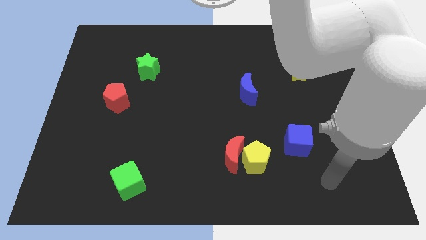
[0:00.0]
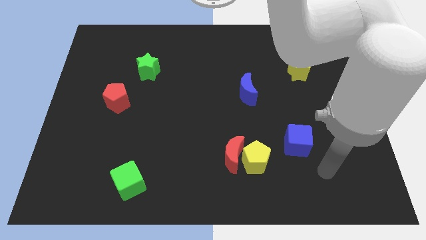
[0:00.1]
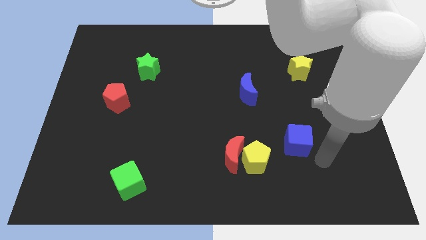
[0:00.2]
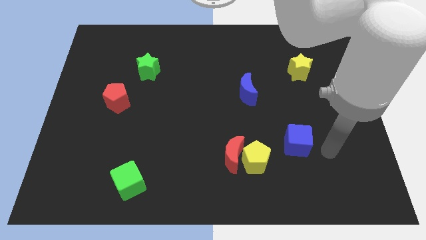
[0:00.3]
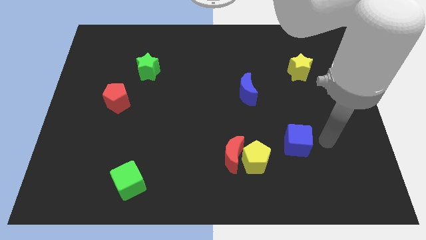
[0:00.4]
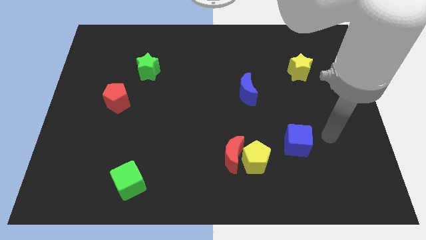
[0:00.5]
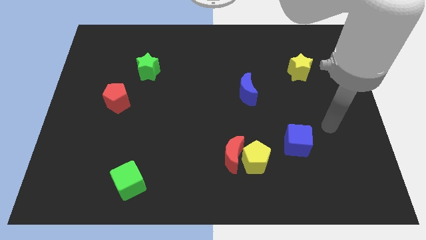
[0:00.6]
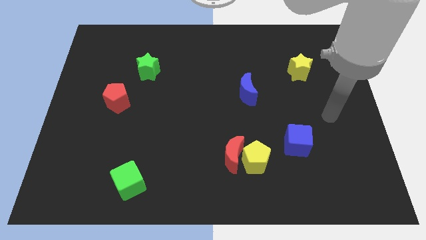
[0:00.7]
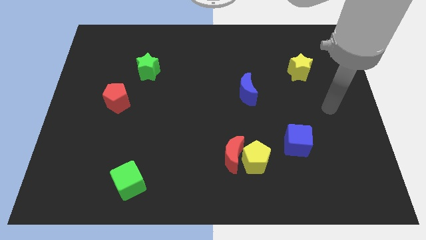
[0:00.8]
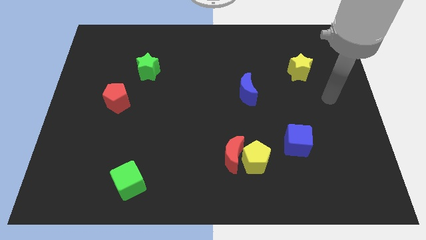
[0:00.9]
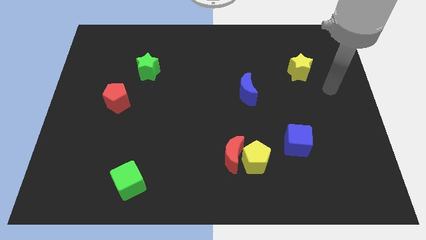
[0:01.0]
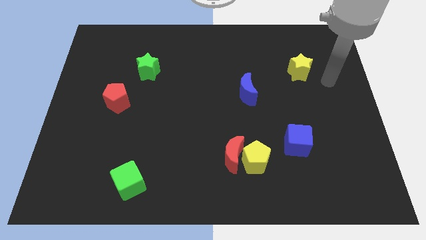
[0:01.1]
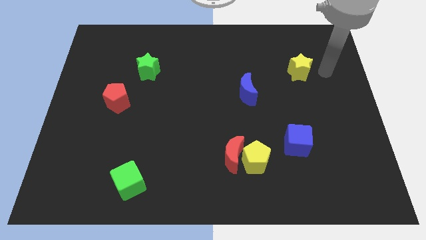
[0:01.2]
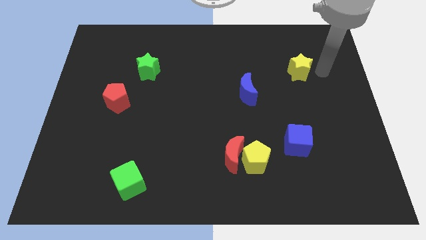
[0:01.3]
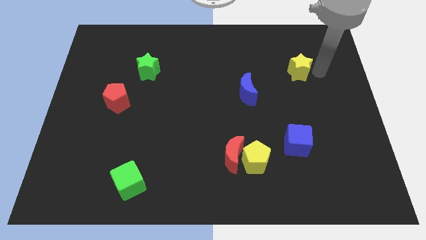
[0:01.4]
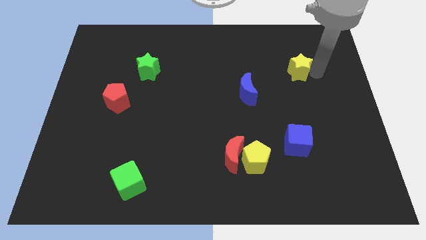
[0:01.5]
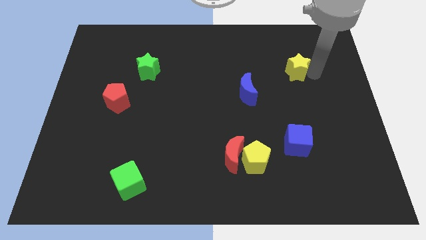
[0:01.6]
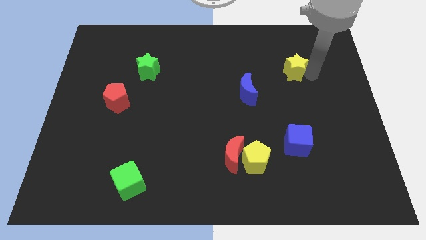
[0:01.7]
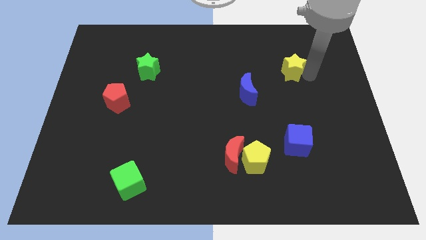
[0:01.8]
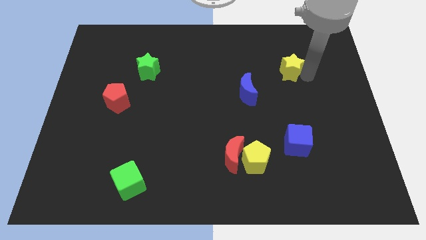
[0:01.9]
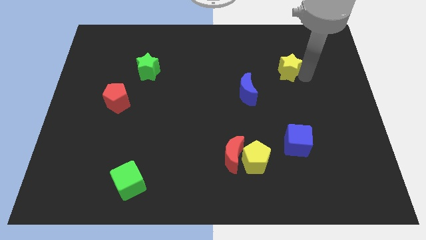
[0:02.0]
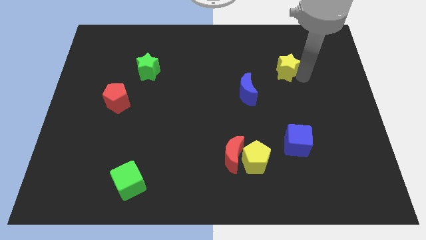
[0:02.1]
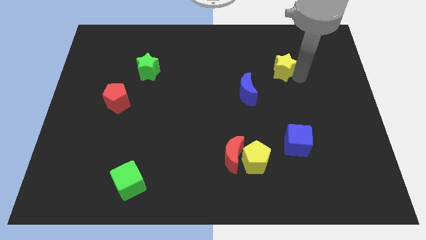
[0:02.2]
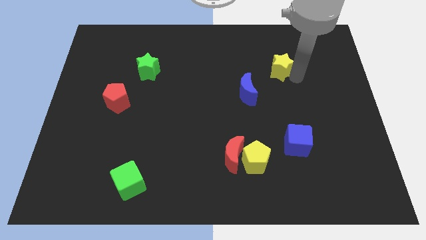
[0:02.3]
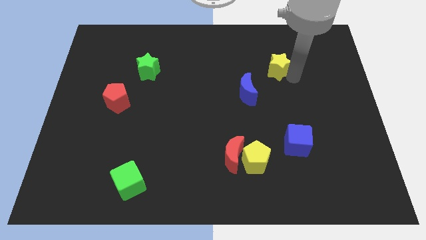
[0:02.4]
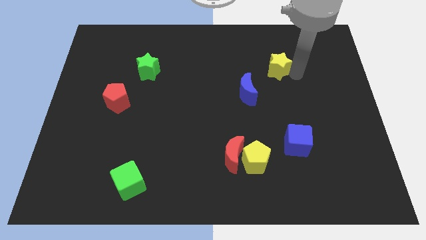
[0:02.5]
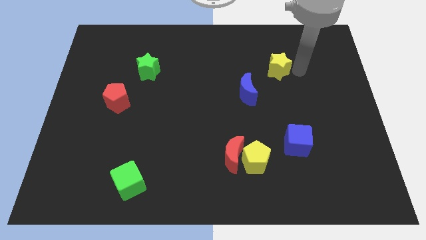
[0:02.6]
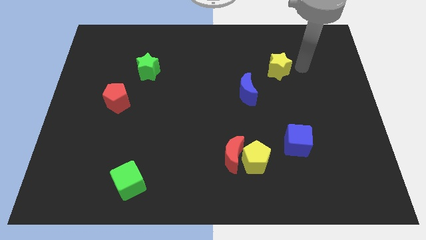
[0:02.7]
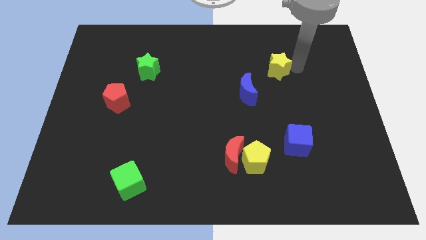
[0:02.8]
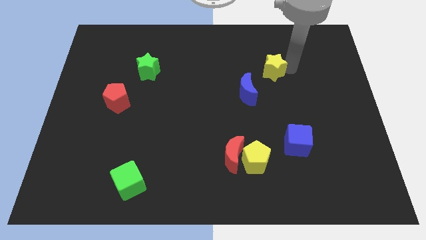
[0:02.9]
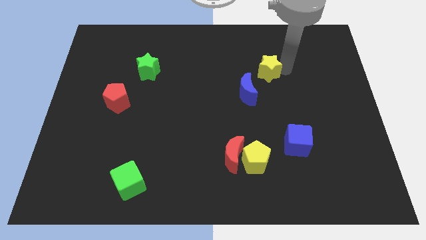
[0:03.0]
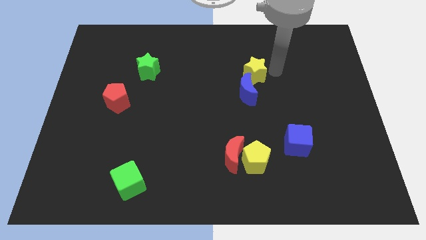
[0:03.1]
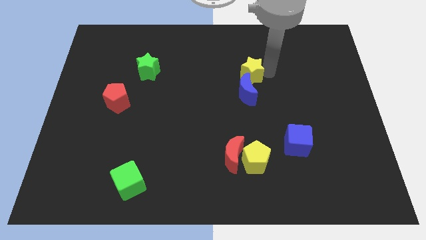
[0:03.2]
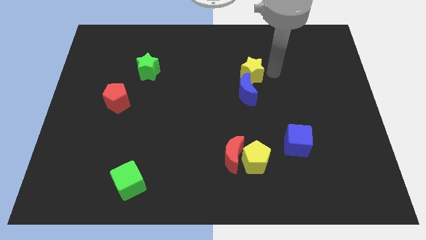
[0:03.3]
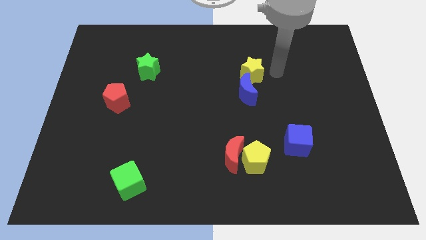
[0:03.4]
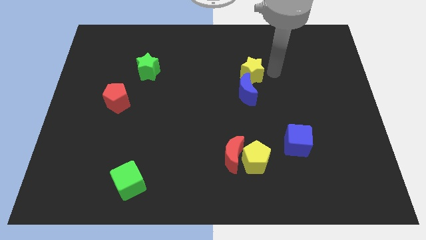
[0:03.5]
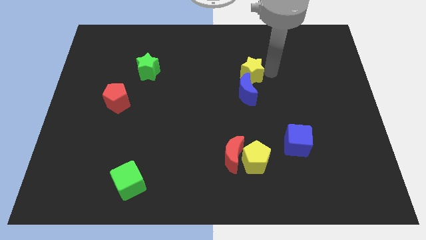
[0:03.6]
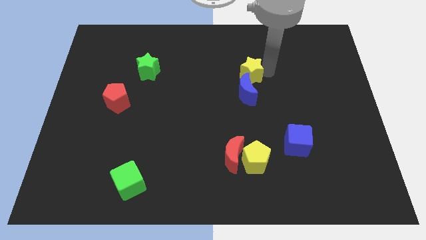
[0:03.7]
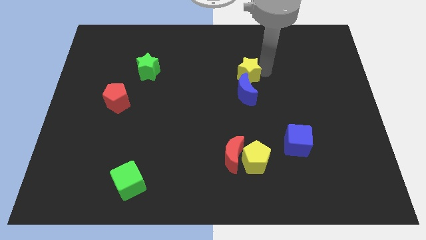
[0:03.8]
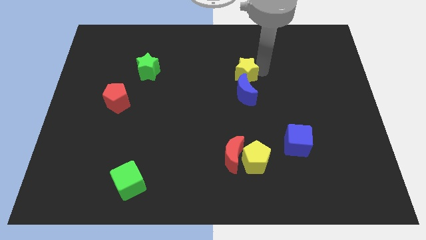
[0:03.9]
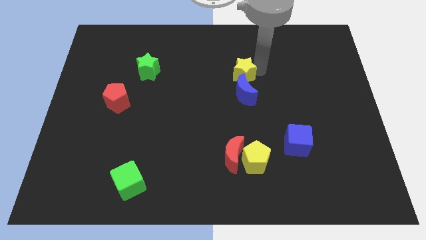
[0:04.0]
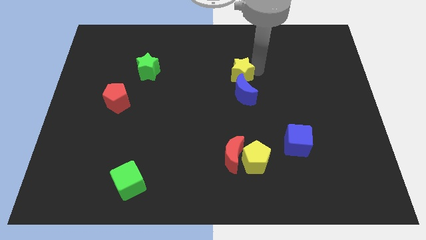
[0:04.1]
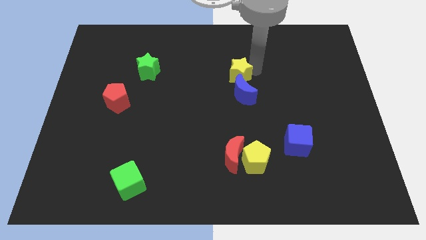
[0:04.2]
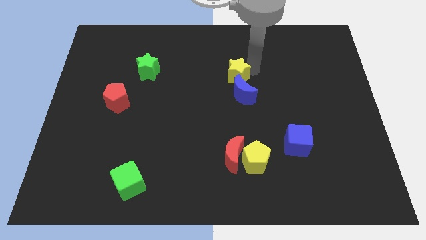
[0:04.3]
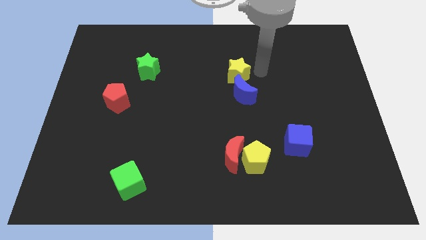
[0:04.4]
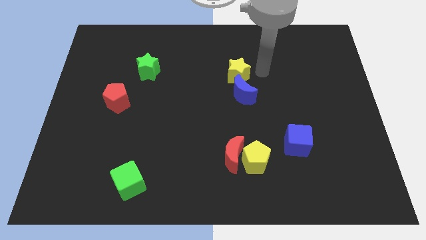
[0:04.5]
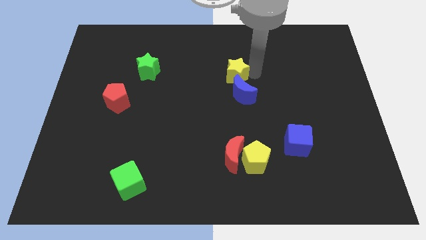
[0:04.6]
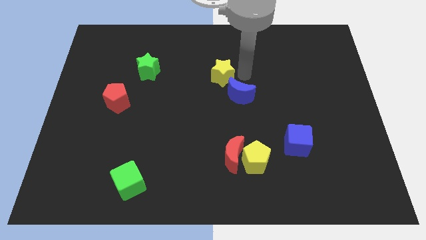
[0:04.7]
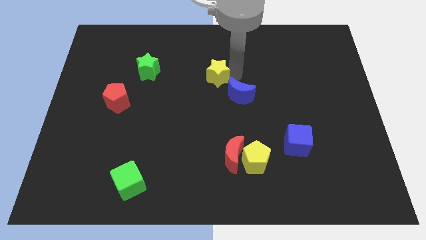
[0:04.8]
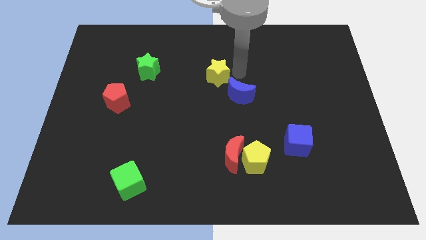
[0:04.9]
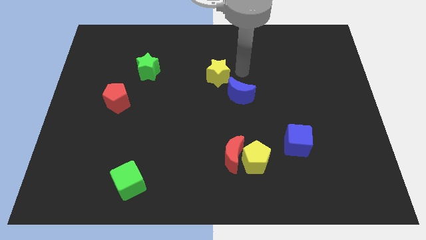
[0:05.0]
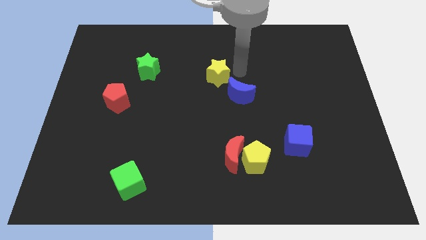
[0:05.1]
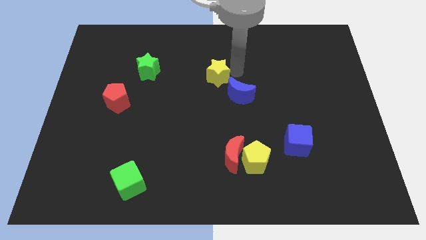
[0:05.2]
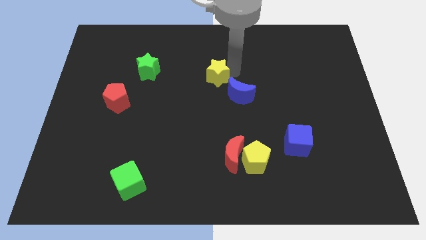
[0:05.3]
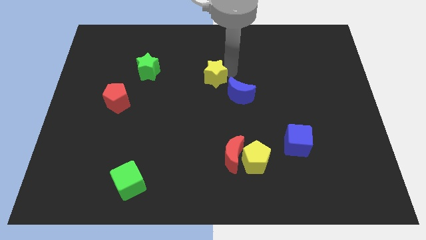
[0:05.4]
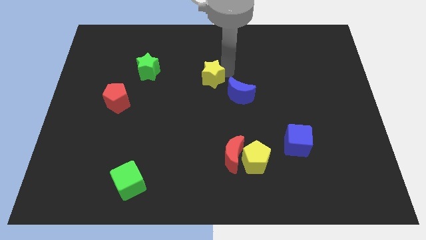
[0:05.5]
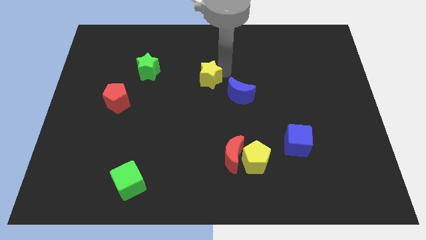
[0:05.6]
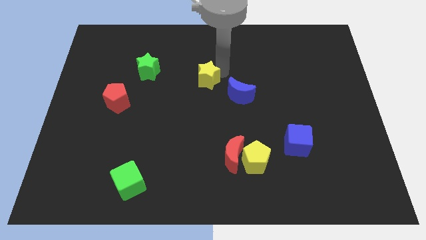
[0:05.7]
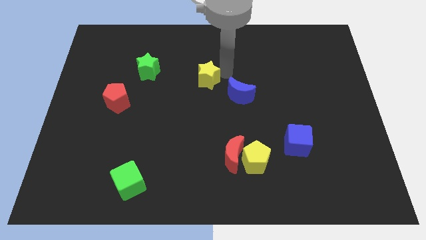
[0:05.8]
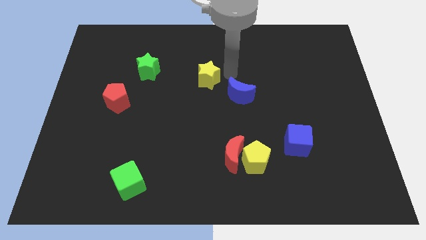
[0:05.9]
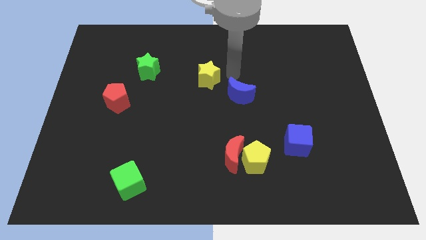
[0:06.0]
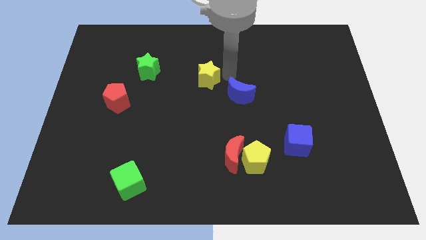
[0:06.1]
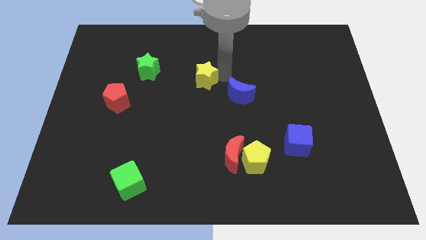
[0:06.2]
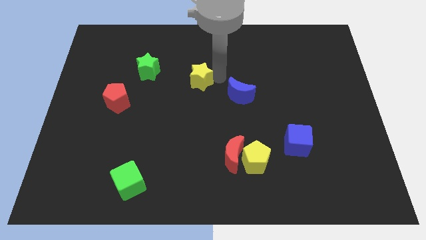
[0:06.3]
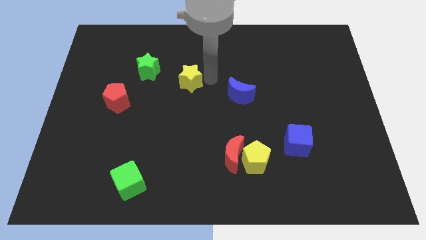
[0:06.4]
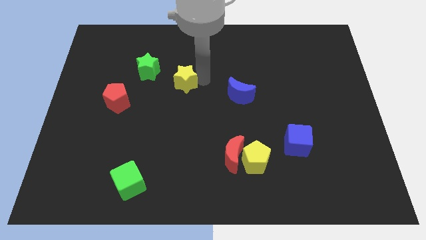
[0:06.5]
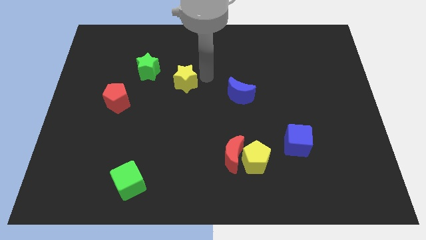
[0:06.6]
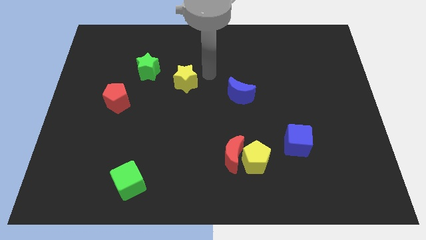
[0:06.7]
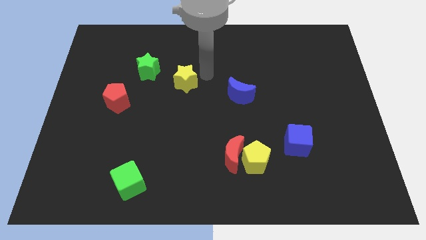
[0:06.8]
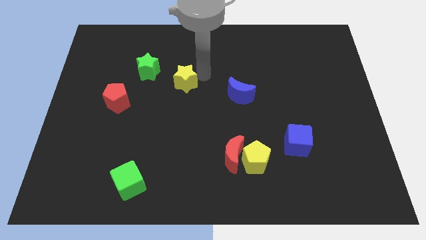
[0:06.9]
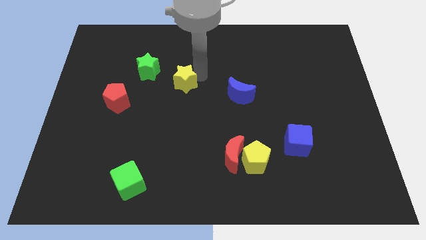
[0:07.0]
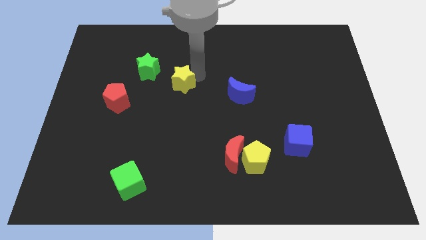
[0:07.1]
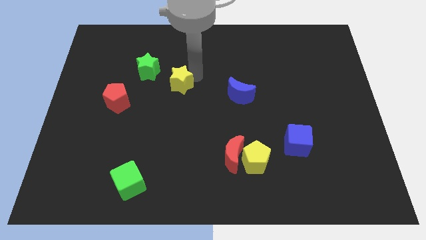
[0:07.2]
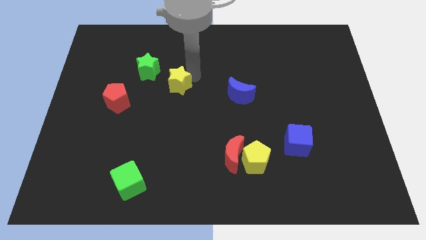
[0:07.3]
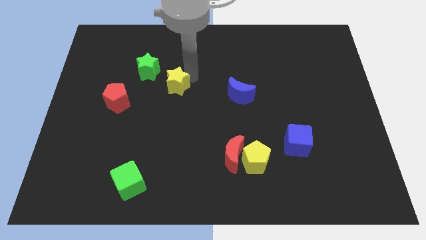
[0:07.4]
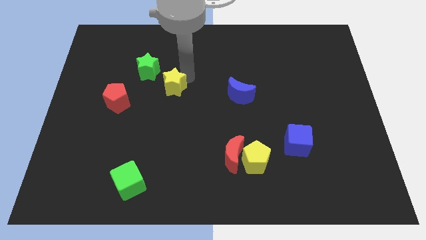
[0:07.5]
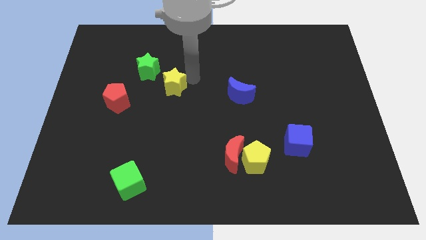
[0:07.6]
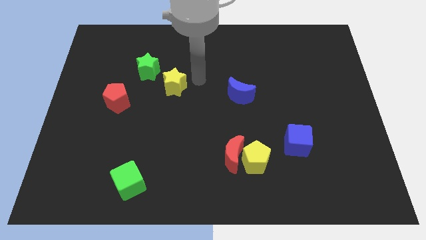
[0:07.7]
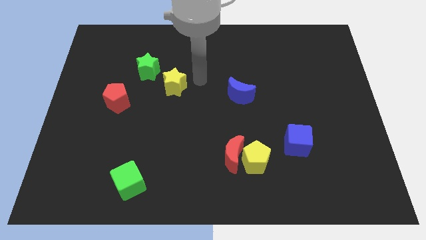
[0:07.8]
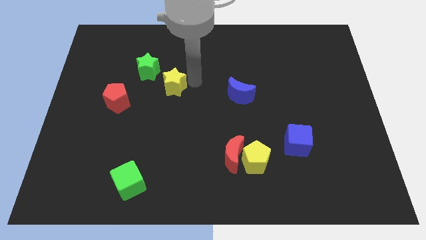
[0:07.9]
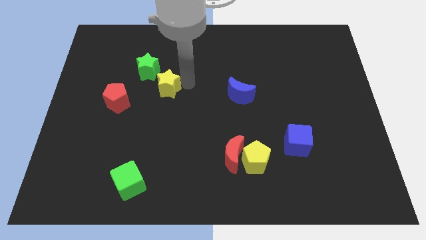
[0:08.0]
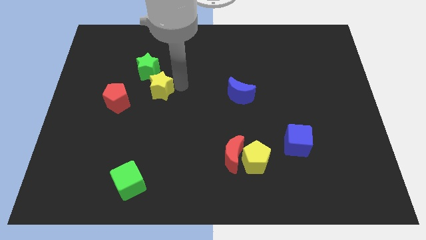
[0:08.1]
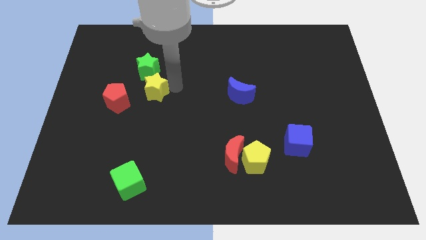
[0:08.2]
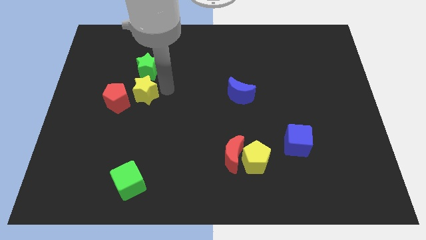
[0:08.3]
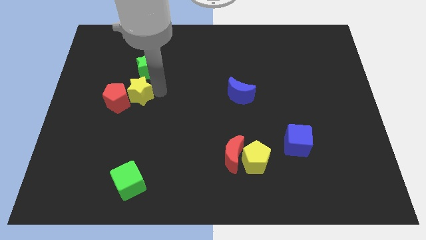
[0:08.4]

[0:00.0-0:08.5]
push the yellow star towards the red pentagon
